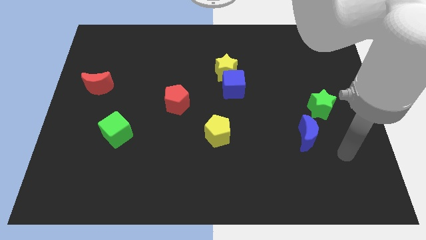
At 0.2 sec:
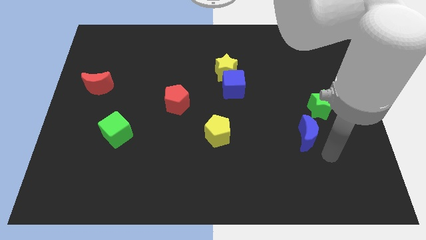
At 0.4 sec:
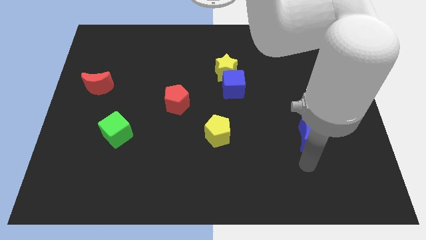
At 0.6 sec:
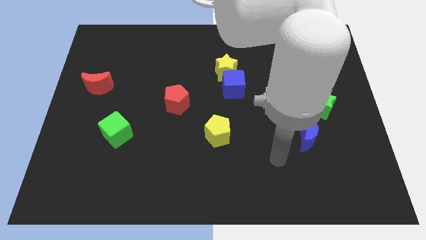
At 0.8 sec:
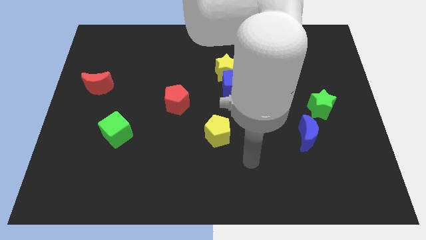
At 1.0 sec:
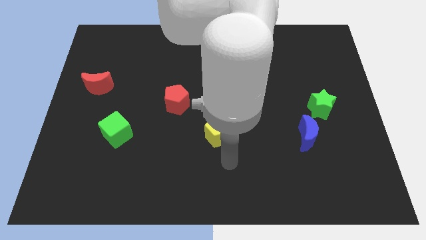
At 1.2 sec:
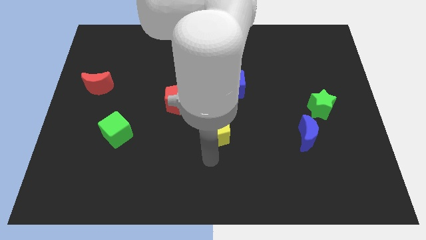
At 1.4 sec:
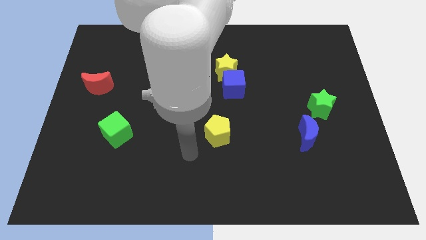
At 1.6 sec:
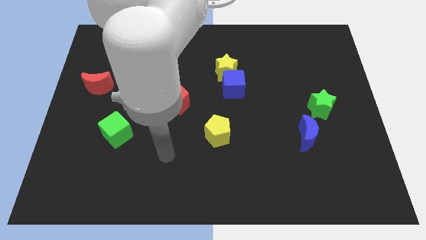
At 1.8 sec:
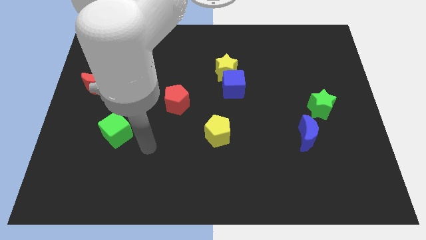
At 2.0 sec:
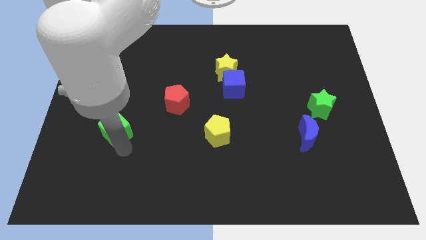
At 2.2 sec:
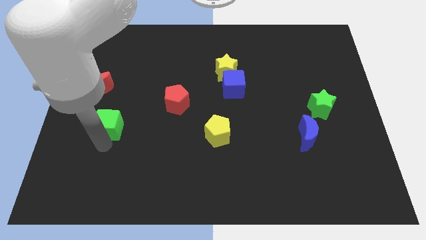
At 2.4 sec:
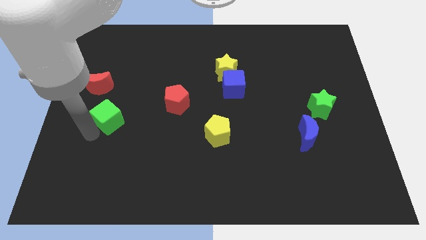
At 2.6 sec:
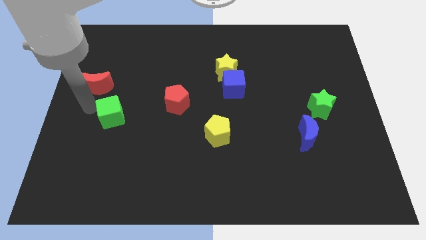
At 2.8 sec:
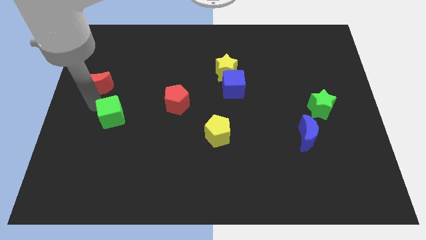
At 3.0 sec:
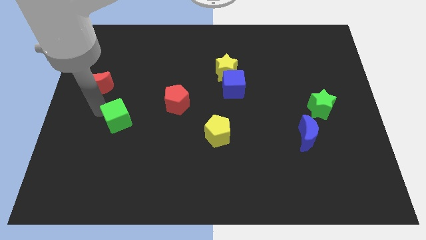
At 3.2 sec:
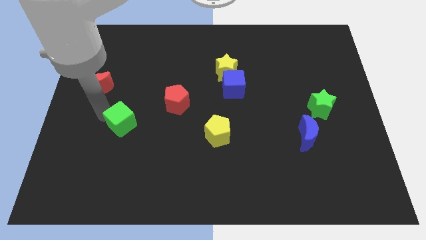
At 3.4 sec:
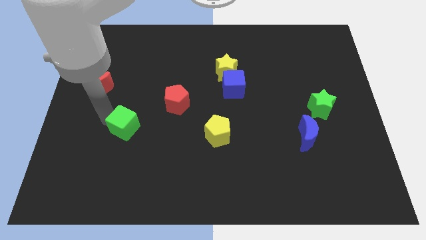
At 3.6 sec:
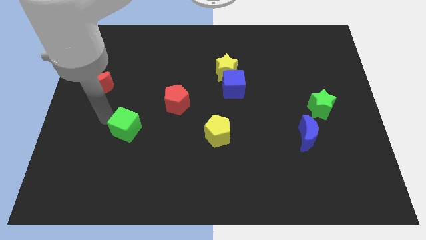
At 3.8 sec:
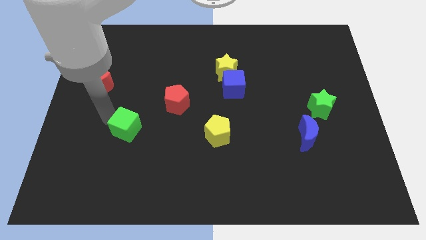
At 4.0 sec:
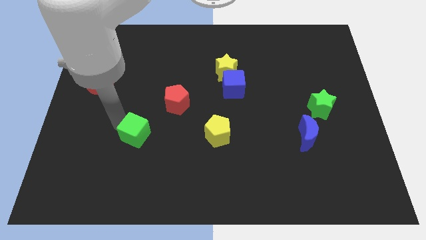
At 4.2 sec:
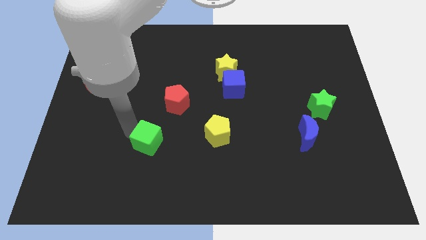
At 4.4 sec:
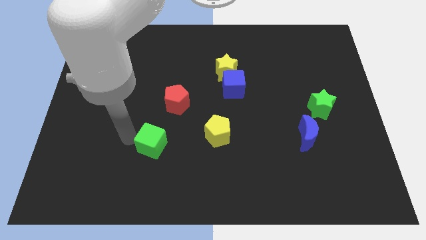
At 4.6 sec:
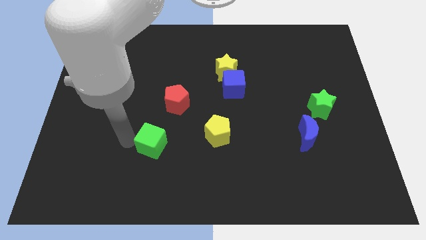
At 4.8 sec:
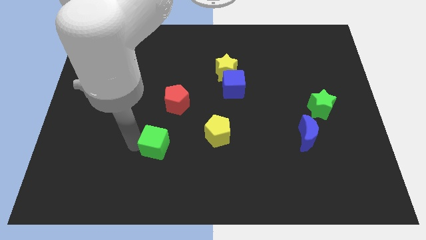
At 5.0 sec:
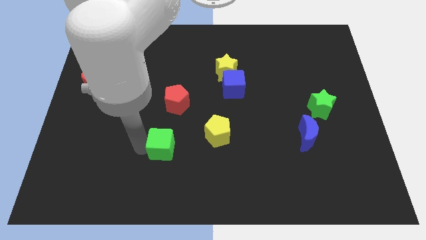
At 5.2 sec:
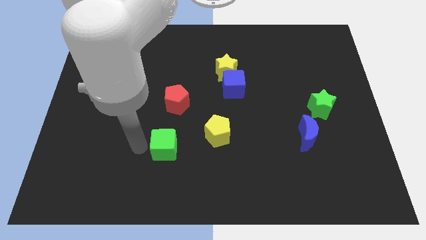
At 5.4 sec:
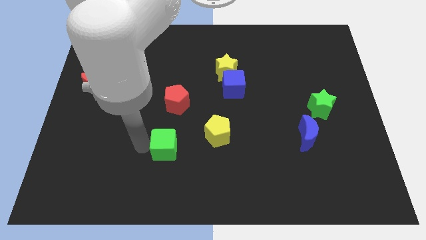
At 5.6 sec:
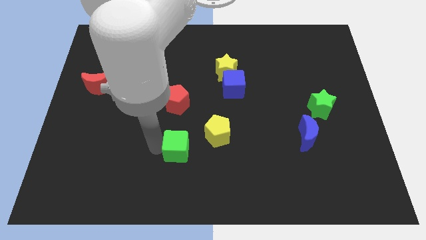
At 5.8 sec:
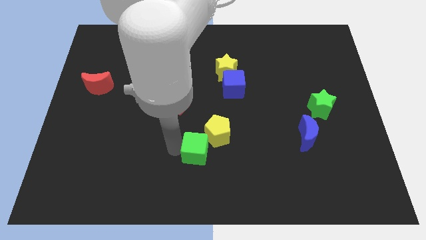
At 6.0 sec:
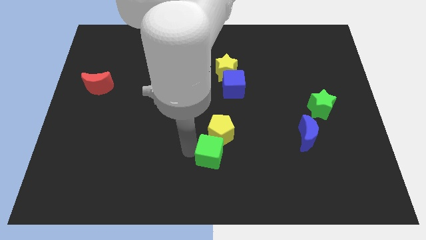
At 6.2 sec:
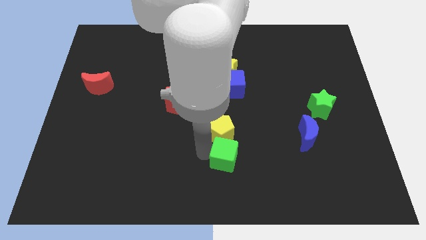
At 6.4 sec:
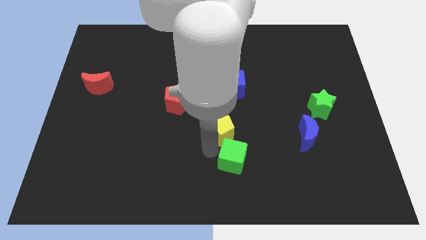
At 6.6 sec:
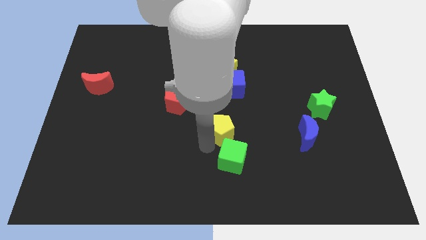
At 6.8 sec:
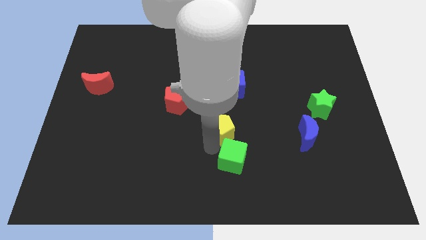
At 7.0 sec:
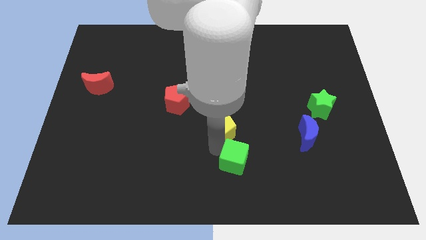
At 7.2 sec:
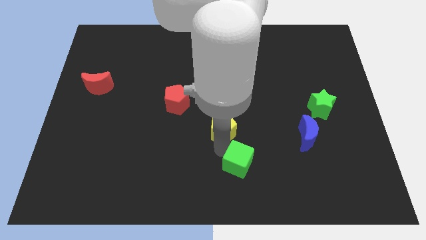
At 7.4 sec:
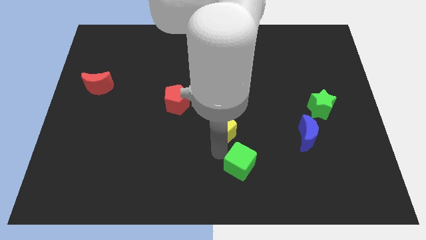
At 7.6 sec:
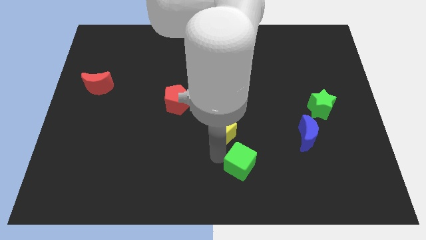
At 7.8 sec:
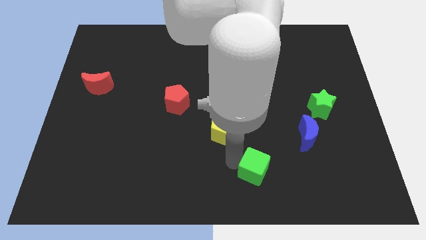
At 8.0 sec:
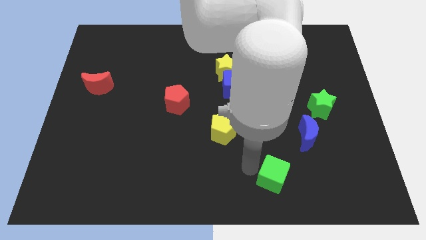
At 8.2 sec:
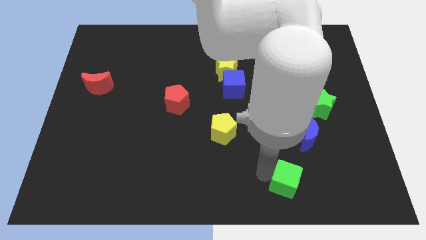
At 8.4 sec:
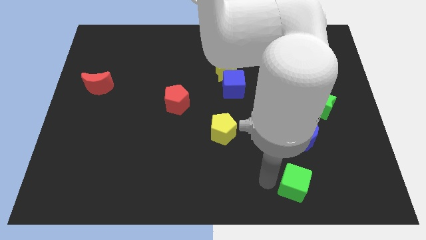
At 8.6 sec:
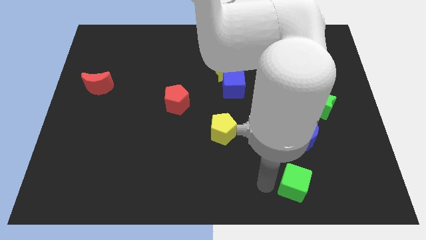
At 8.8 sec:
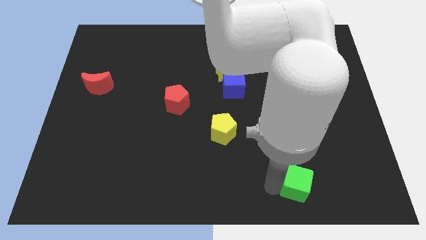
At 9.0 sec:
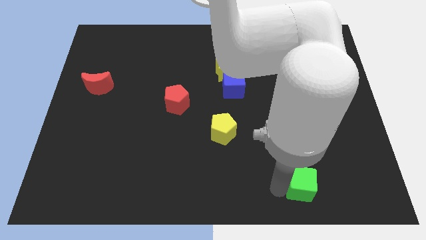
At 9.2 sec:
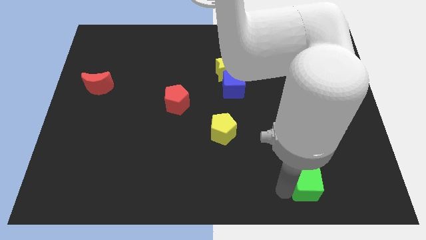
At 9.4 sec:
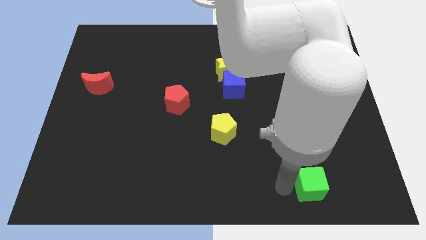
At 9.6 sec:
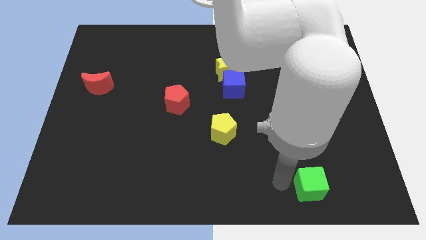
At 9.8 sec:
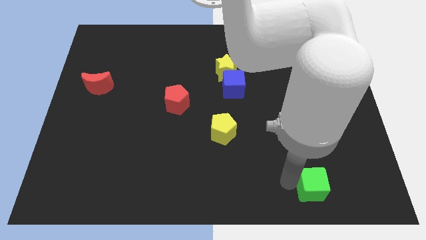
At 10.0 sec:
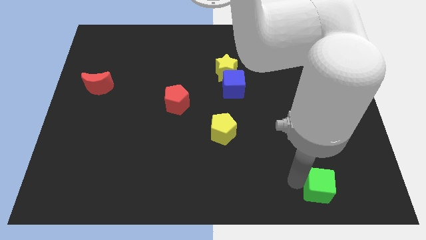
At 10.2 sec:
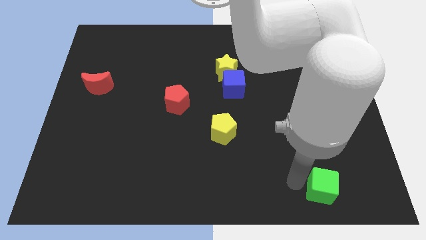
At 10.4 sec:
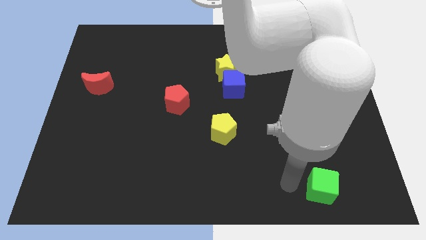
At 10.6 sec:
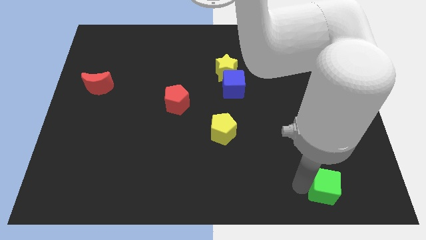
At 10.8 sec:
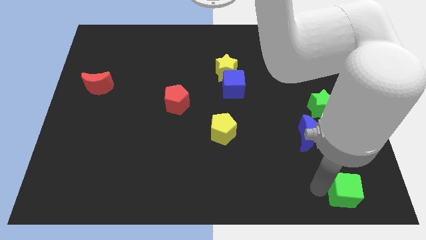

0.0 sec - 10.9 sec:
push the green cube to the lower right corner

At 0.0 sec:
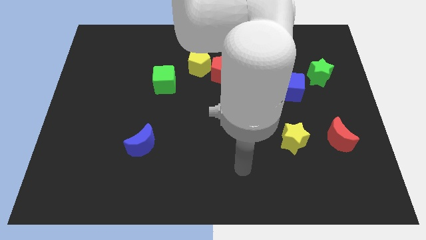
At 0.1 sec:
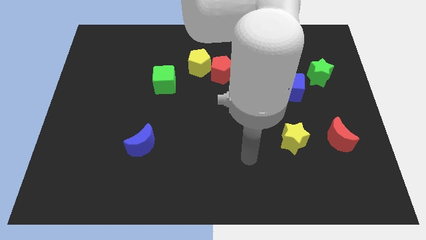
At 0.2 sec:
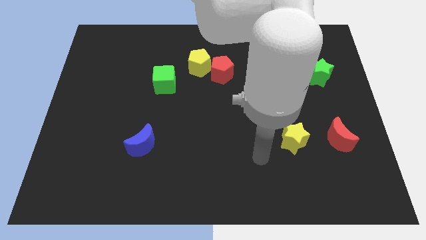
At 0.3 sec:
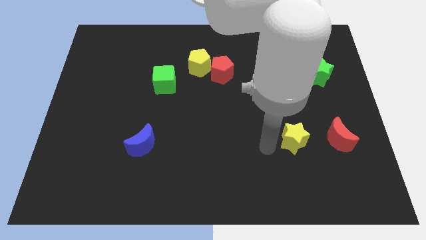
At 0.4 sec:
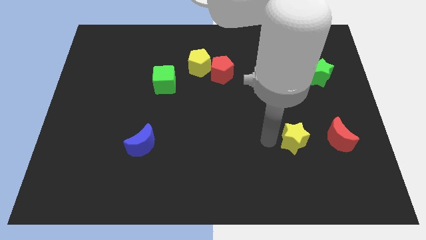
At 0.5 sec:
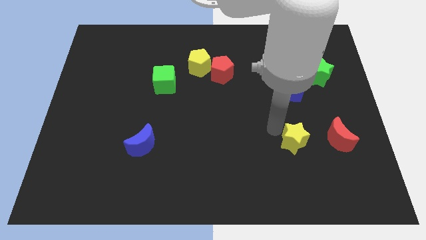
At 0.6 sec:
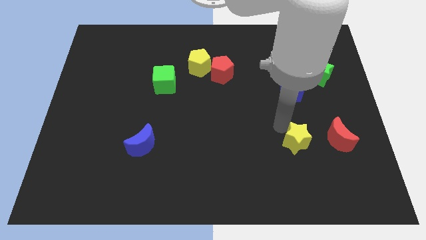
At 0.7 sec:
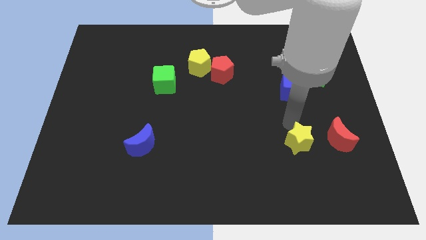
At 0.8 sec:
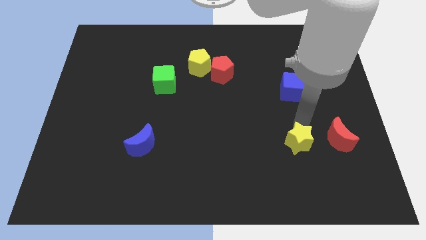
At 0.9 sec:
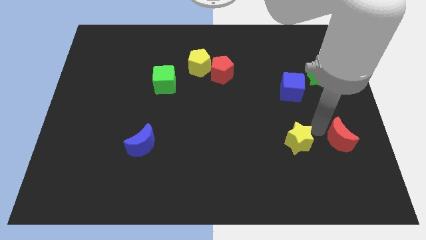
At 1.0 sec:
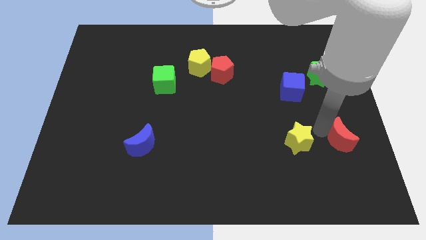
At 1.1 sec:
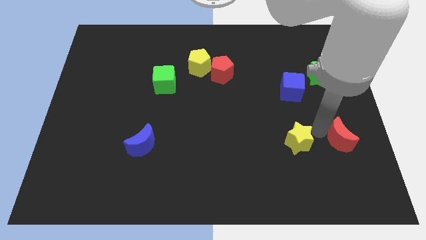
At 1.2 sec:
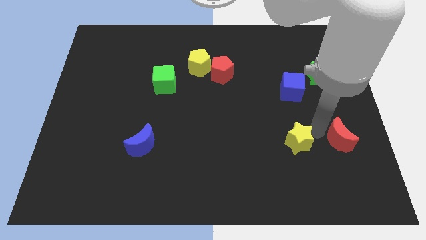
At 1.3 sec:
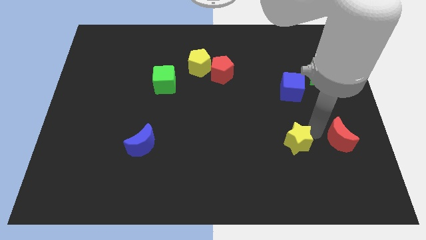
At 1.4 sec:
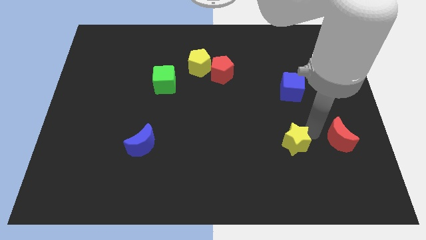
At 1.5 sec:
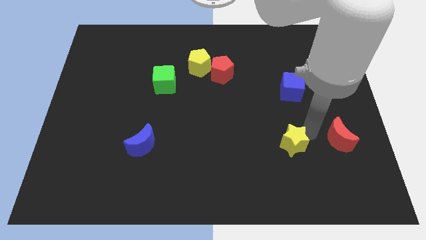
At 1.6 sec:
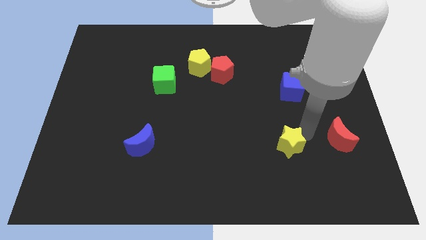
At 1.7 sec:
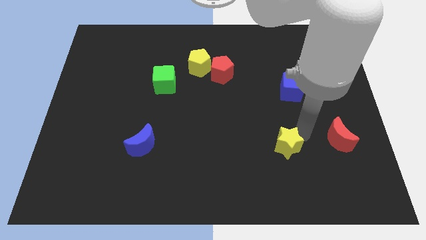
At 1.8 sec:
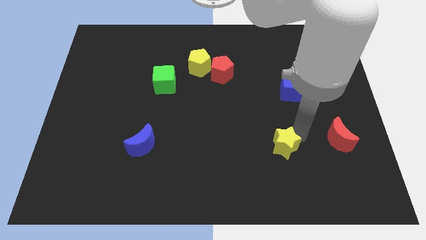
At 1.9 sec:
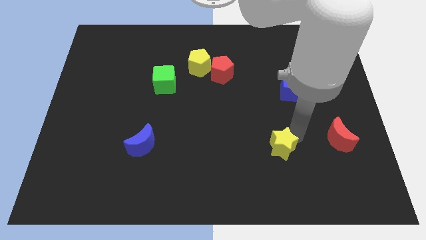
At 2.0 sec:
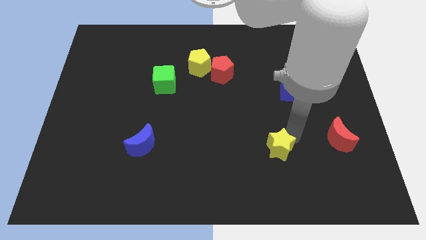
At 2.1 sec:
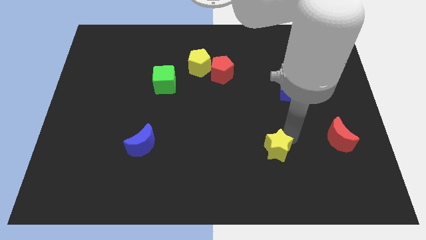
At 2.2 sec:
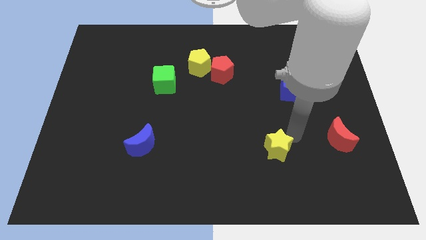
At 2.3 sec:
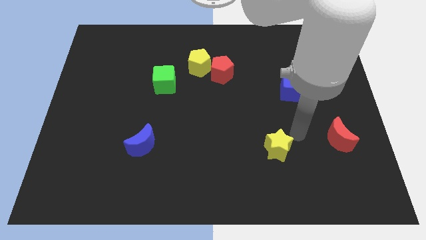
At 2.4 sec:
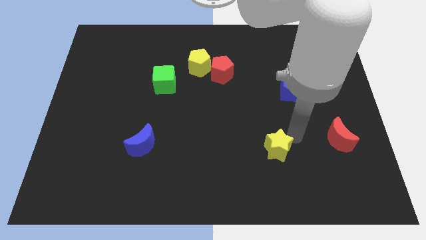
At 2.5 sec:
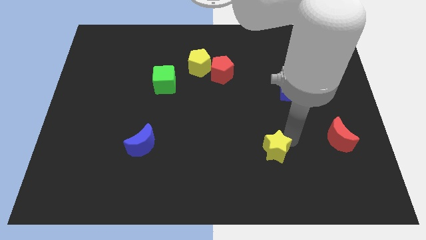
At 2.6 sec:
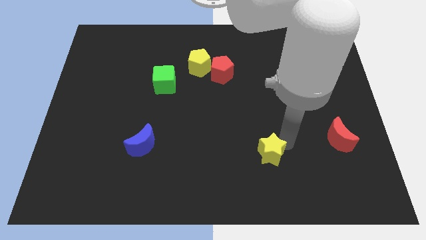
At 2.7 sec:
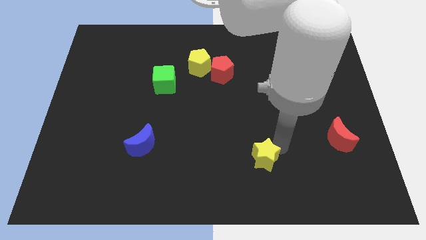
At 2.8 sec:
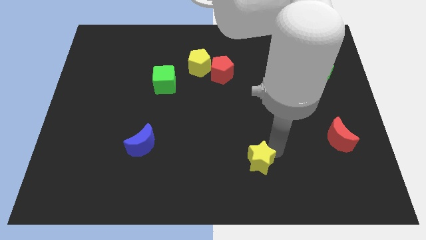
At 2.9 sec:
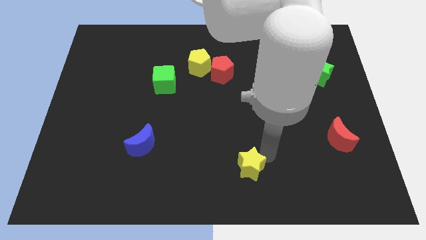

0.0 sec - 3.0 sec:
put the yellow star to the bottom
